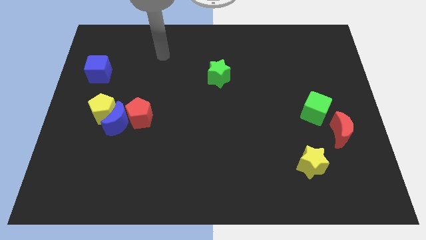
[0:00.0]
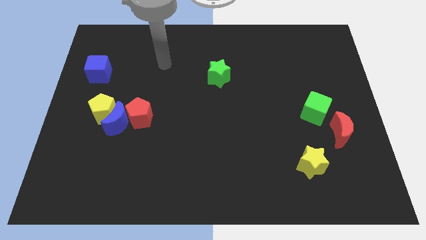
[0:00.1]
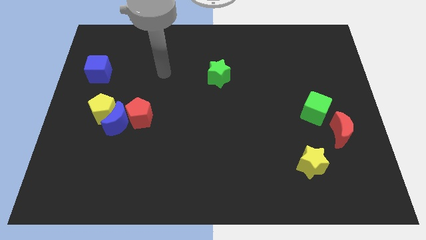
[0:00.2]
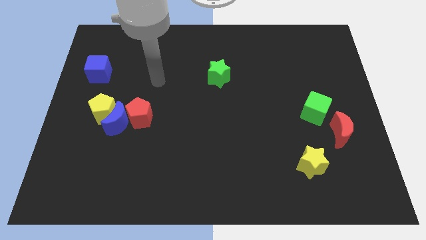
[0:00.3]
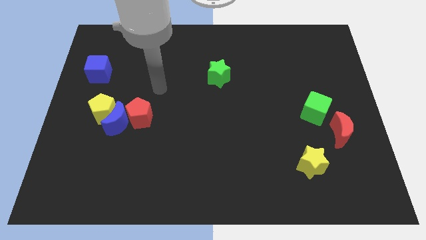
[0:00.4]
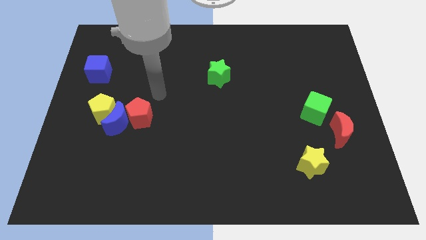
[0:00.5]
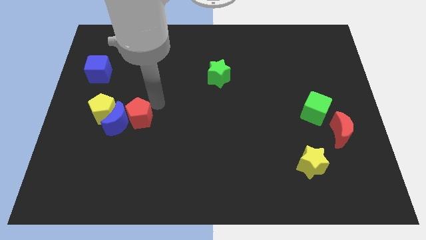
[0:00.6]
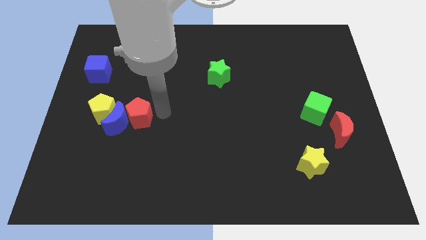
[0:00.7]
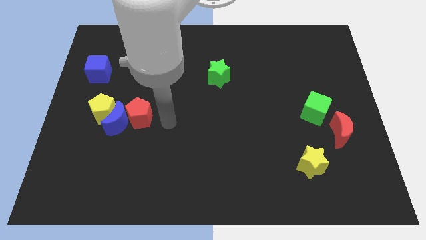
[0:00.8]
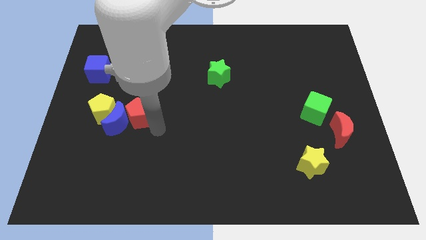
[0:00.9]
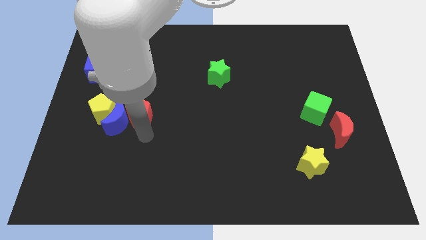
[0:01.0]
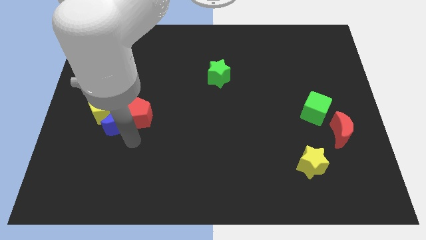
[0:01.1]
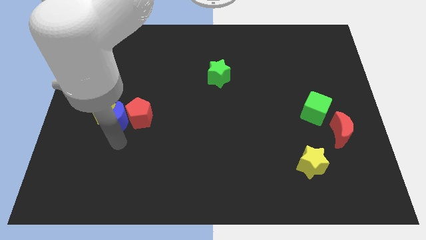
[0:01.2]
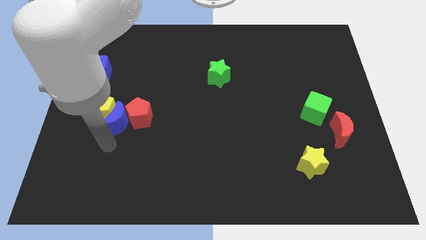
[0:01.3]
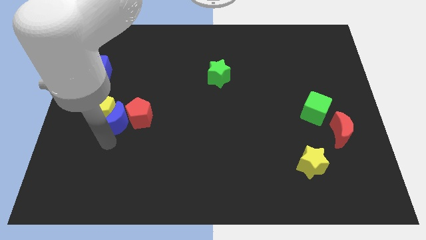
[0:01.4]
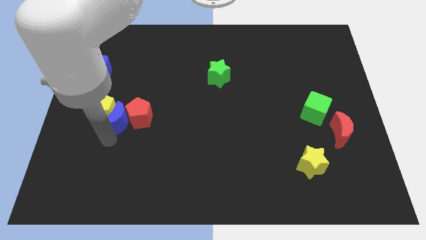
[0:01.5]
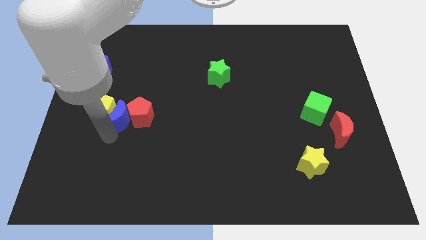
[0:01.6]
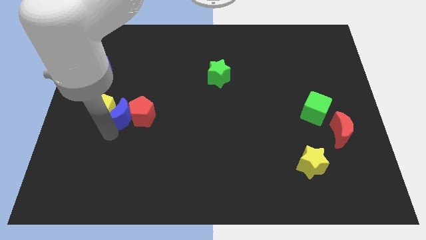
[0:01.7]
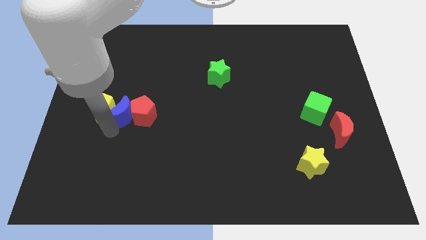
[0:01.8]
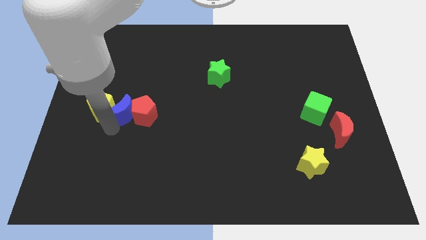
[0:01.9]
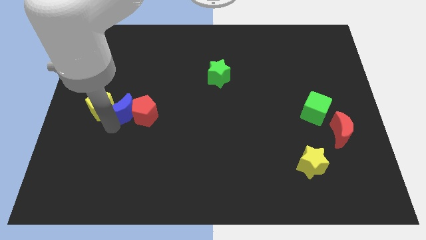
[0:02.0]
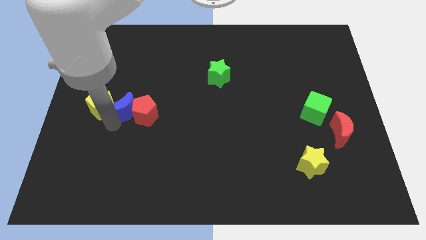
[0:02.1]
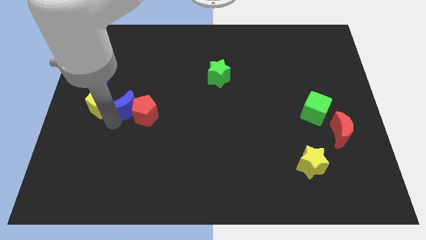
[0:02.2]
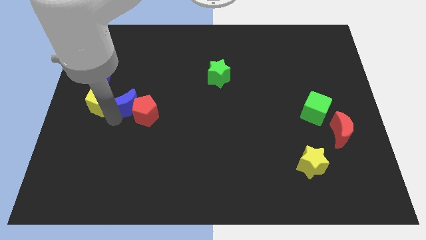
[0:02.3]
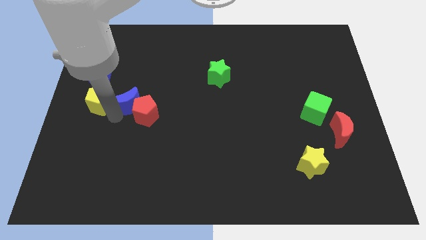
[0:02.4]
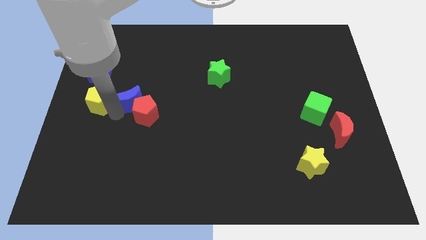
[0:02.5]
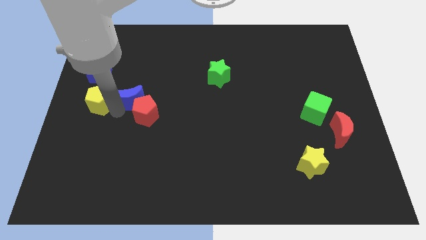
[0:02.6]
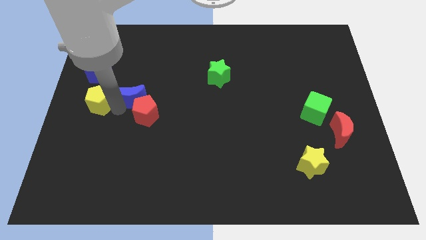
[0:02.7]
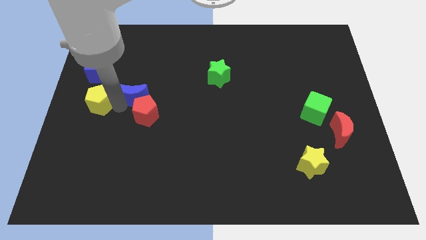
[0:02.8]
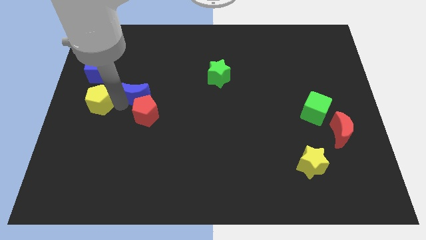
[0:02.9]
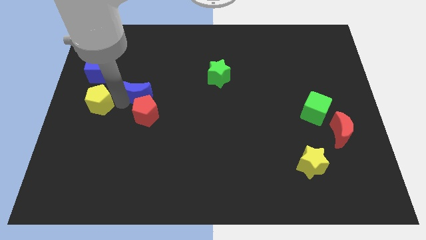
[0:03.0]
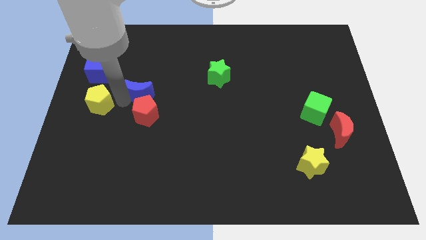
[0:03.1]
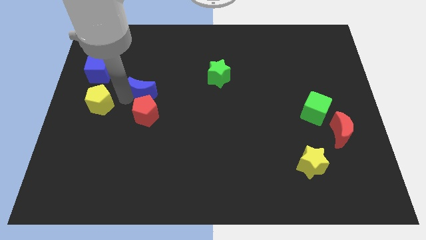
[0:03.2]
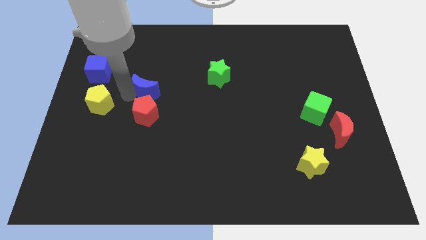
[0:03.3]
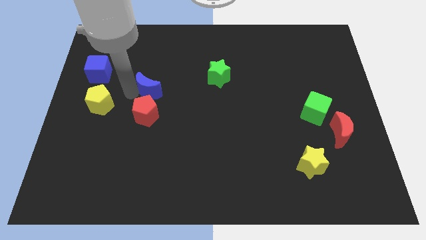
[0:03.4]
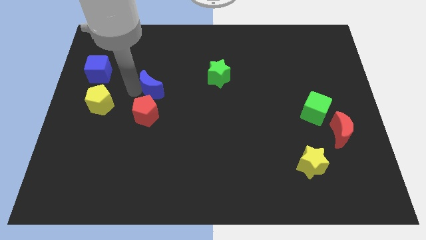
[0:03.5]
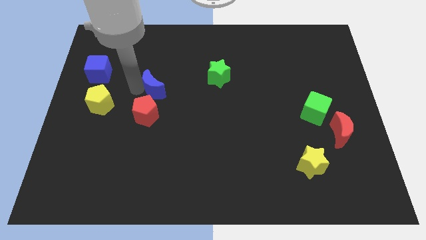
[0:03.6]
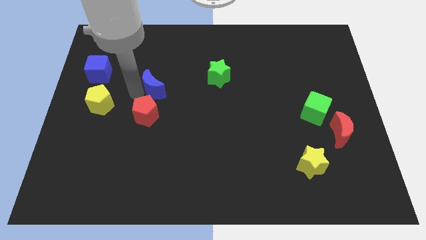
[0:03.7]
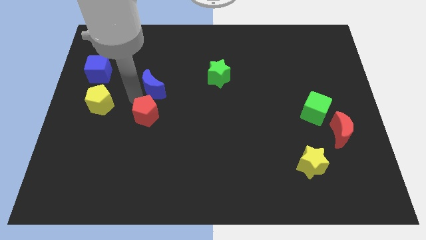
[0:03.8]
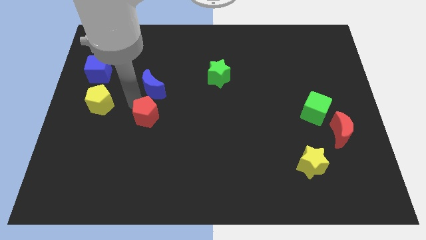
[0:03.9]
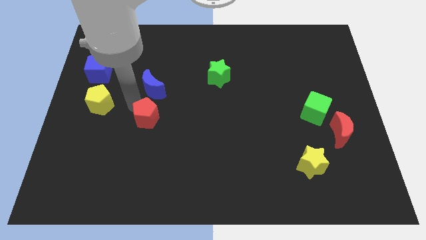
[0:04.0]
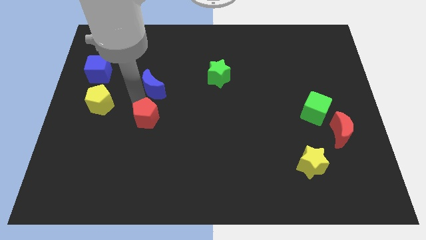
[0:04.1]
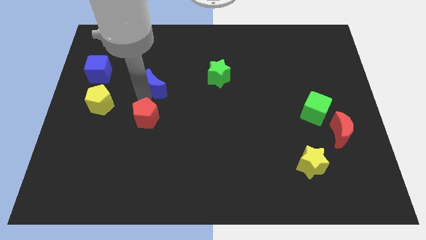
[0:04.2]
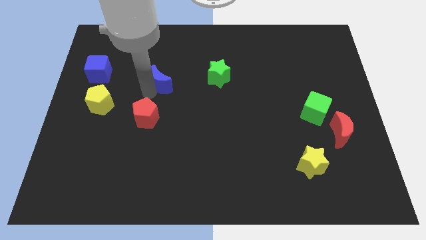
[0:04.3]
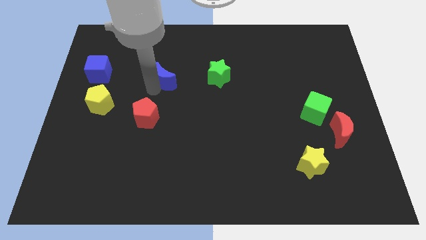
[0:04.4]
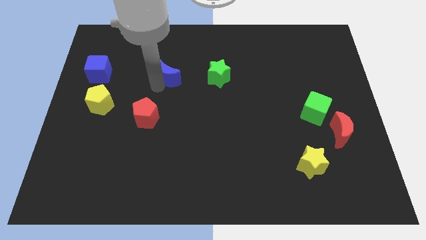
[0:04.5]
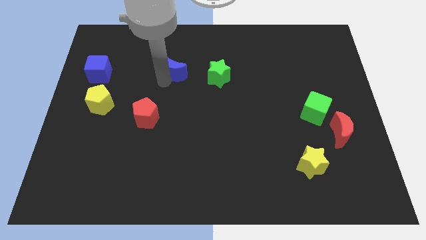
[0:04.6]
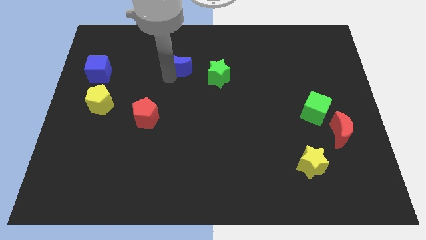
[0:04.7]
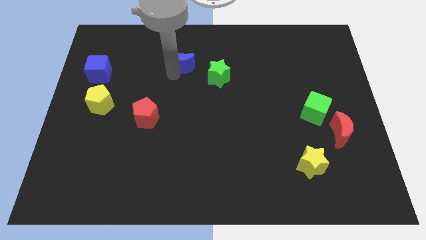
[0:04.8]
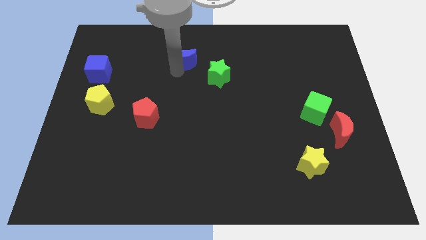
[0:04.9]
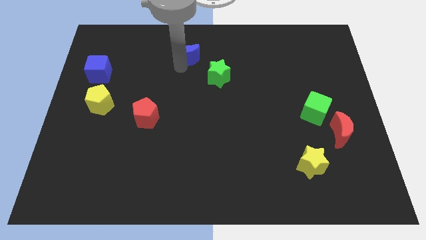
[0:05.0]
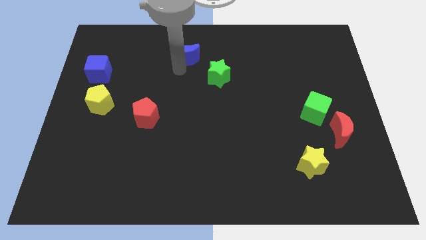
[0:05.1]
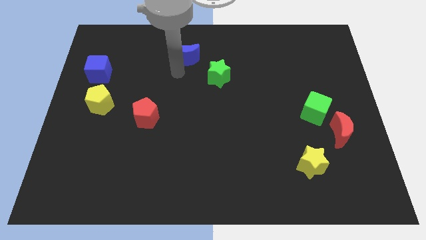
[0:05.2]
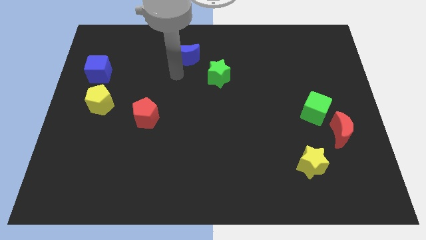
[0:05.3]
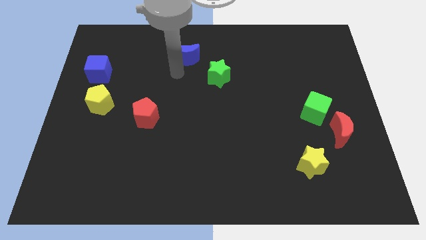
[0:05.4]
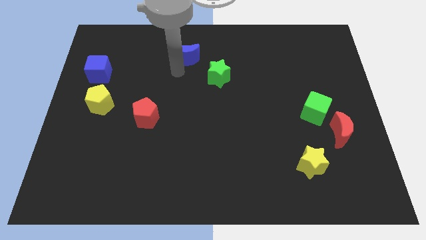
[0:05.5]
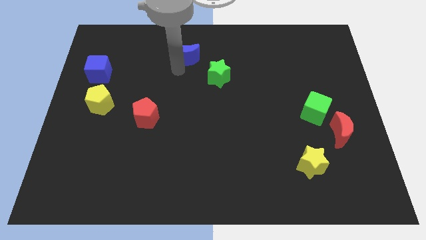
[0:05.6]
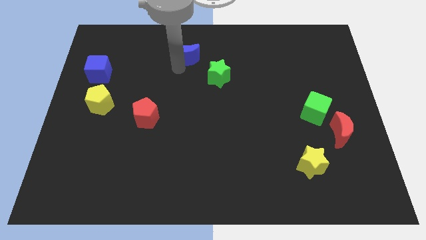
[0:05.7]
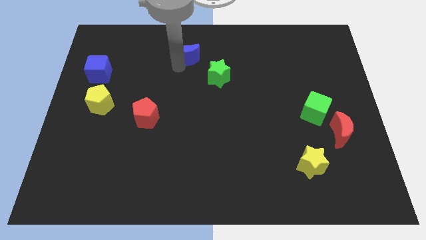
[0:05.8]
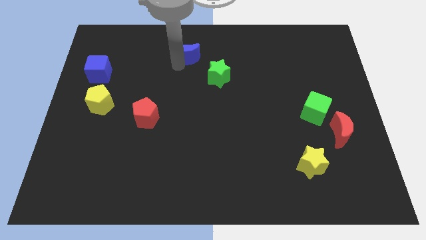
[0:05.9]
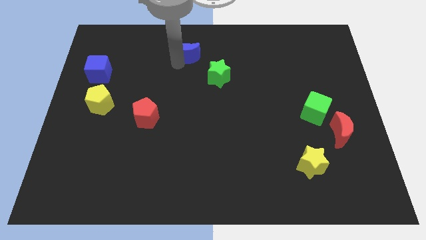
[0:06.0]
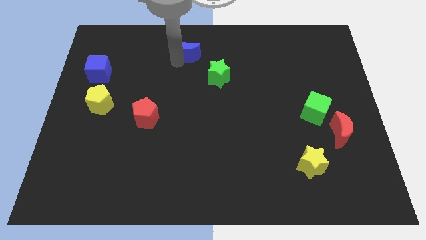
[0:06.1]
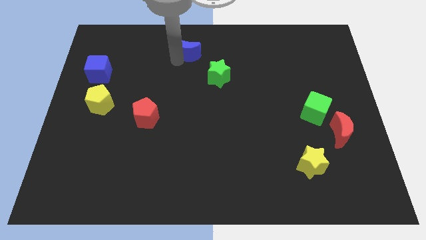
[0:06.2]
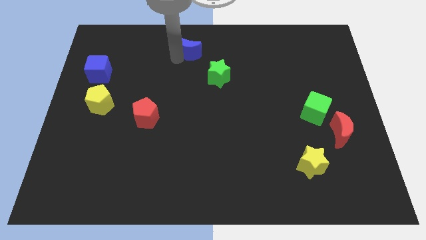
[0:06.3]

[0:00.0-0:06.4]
move the blue moon to the top side

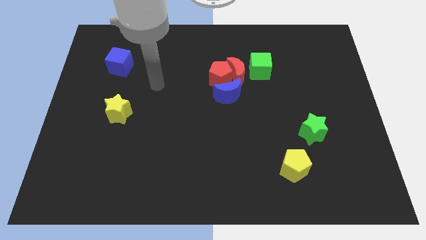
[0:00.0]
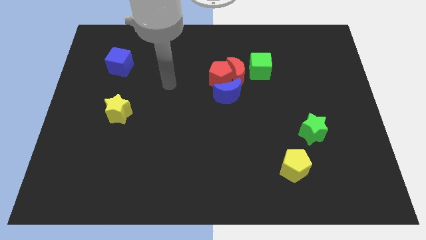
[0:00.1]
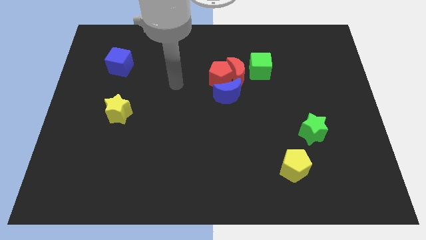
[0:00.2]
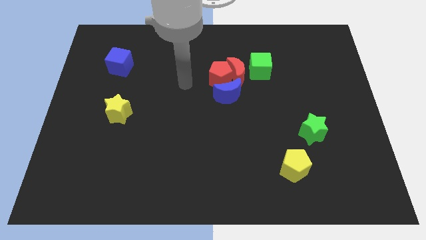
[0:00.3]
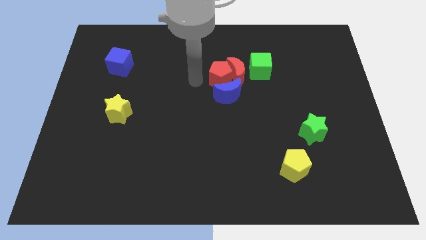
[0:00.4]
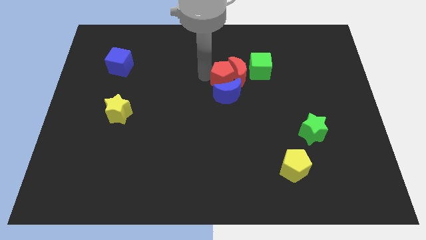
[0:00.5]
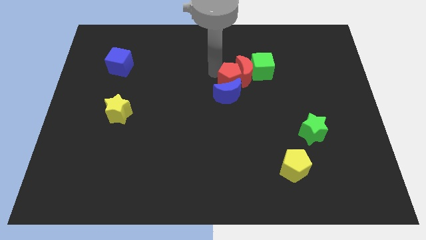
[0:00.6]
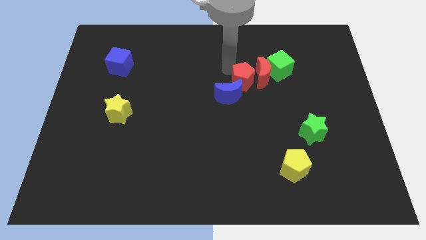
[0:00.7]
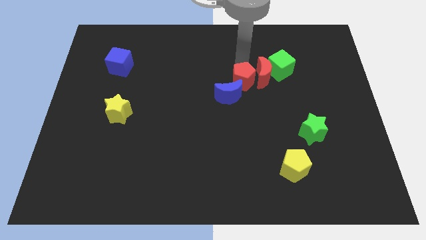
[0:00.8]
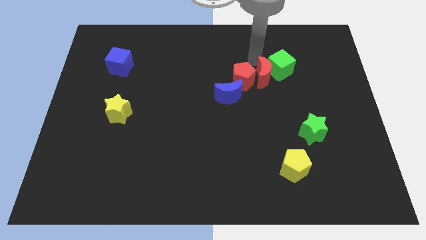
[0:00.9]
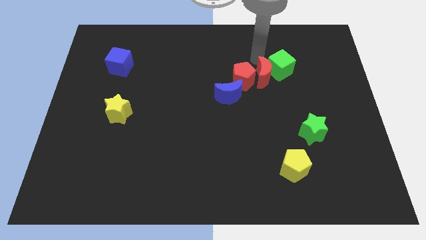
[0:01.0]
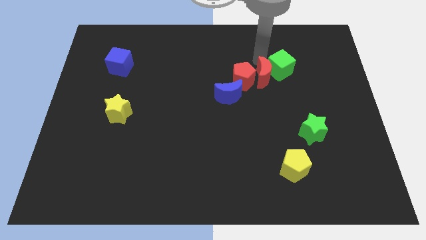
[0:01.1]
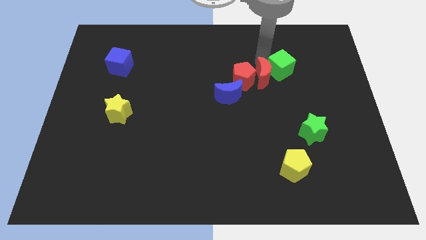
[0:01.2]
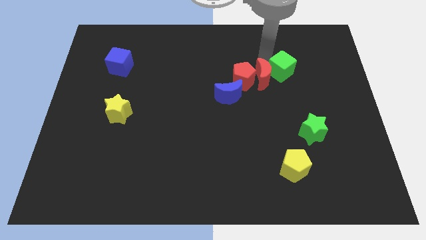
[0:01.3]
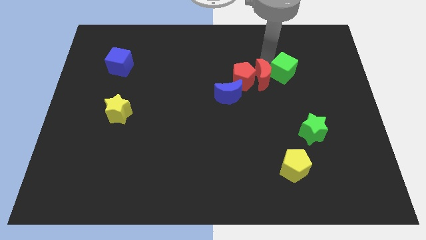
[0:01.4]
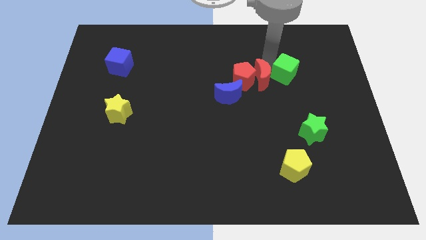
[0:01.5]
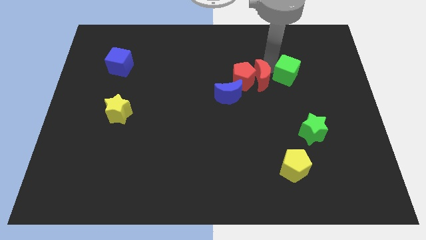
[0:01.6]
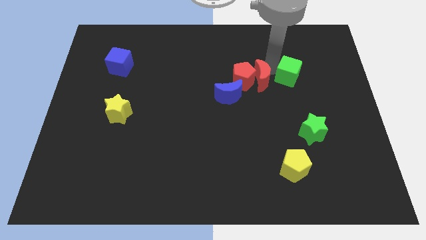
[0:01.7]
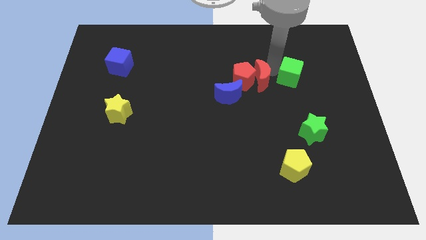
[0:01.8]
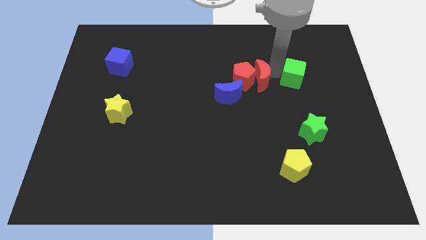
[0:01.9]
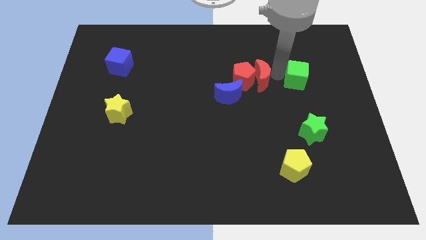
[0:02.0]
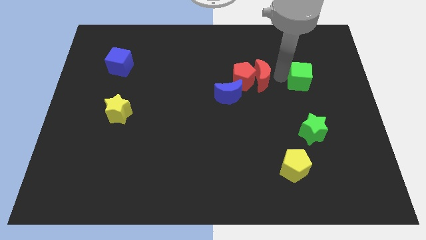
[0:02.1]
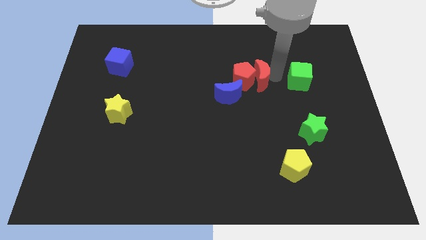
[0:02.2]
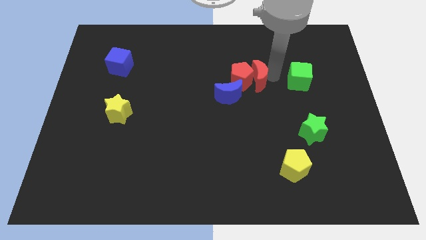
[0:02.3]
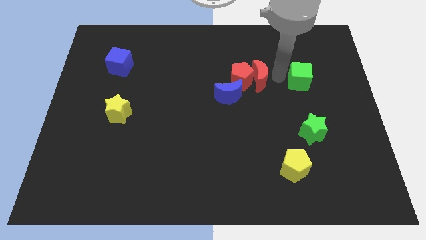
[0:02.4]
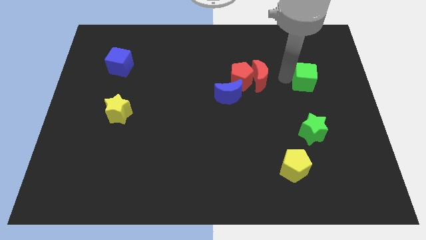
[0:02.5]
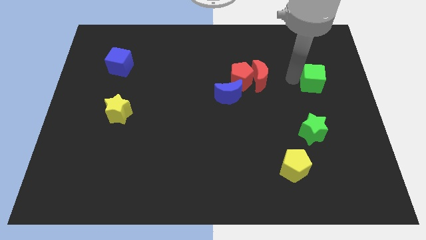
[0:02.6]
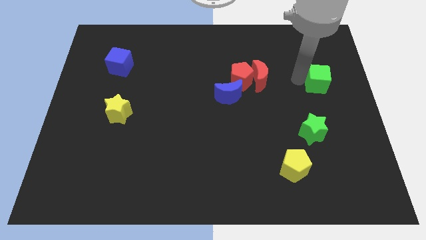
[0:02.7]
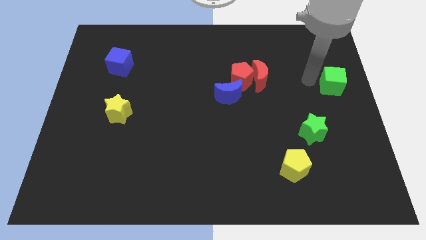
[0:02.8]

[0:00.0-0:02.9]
move the green cube to the center right
